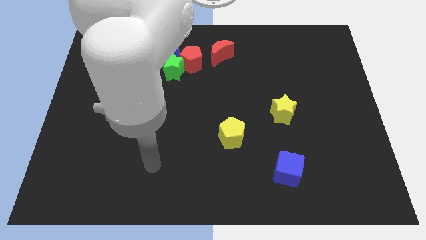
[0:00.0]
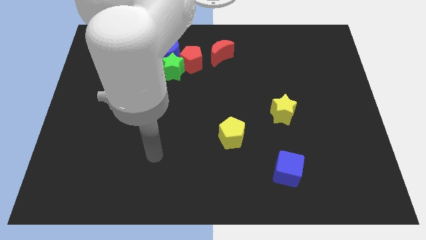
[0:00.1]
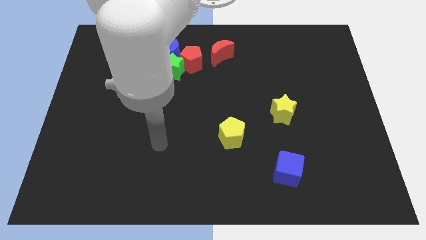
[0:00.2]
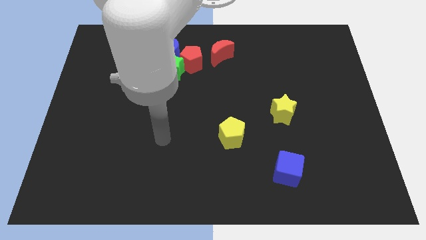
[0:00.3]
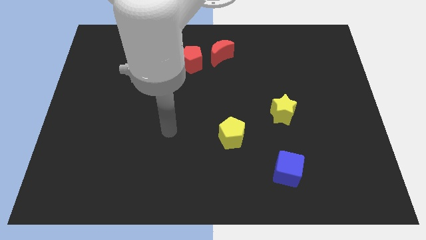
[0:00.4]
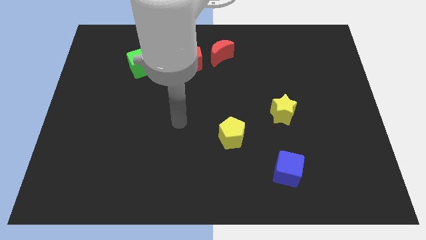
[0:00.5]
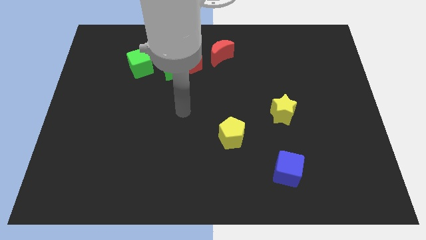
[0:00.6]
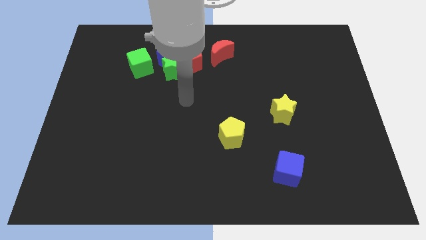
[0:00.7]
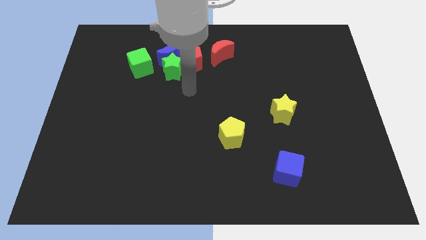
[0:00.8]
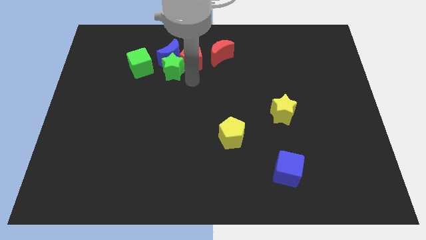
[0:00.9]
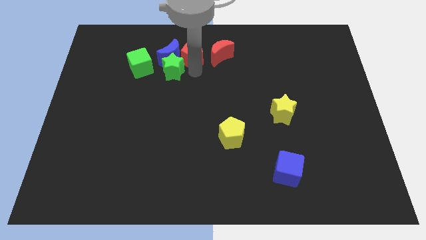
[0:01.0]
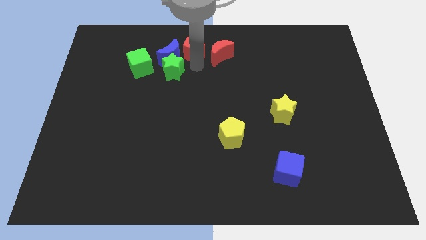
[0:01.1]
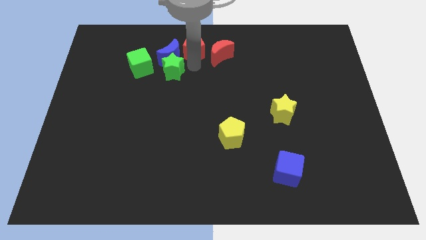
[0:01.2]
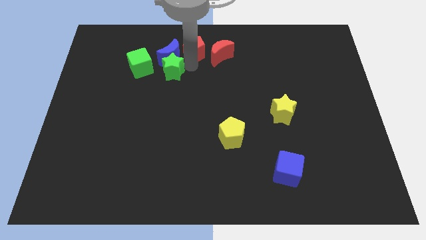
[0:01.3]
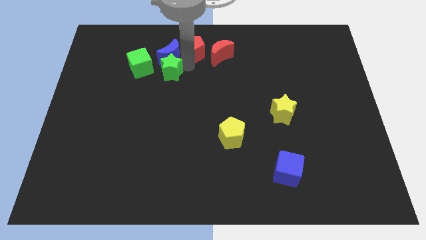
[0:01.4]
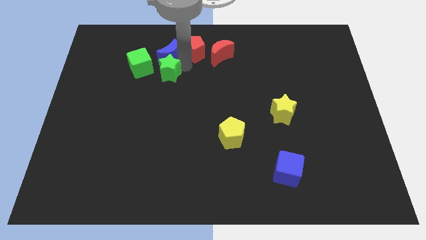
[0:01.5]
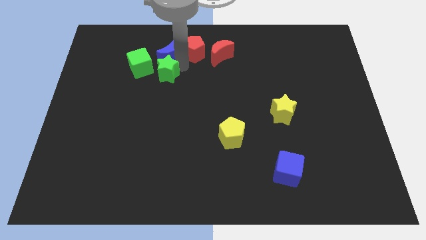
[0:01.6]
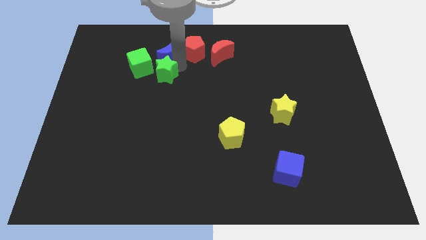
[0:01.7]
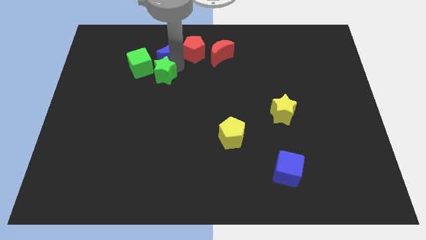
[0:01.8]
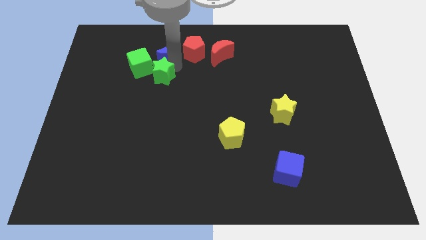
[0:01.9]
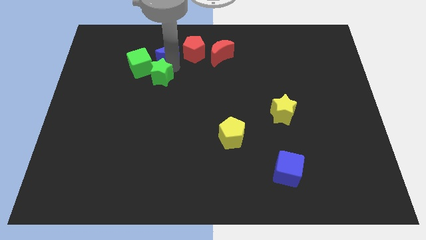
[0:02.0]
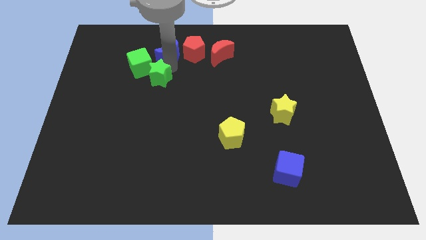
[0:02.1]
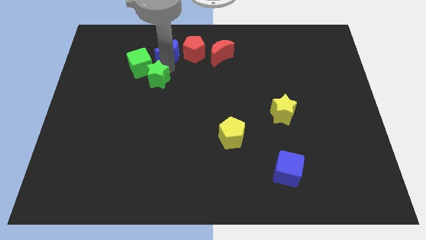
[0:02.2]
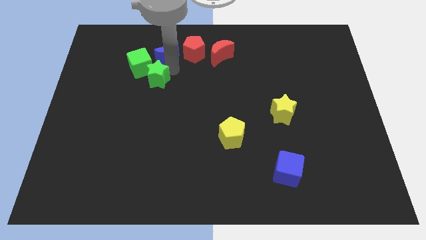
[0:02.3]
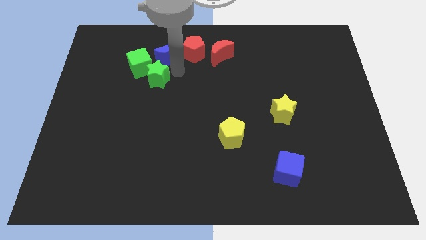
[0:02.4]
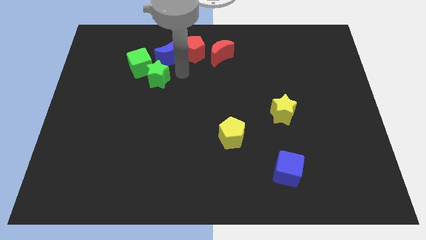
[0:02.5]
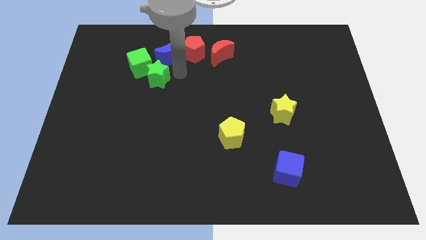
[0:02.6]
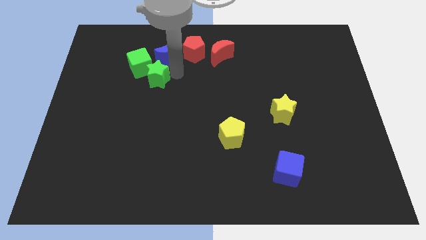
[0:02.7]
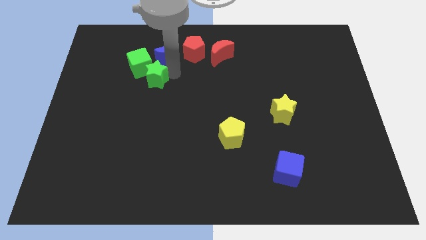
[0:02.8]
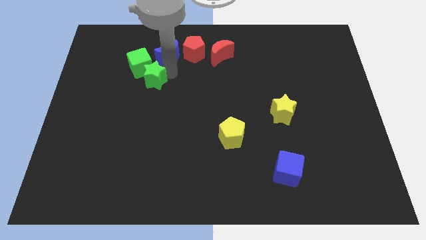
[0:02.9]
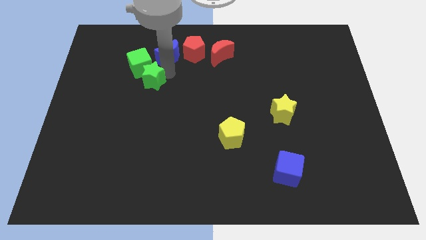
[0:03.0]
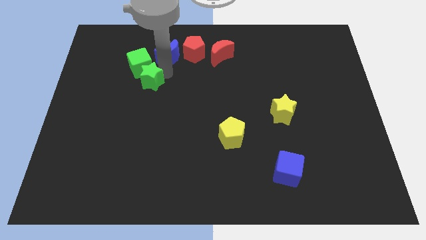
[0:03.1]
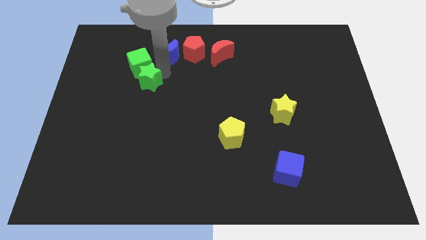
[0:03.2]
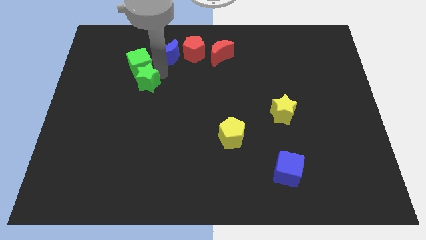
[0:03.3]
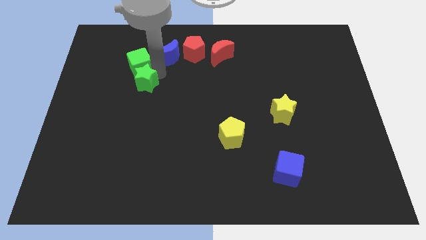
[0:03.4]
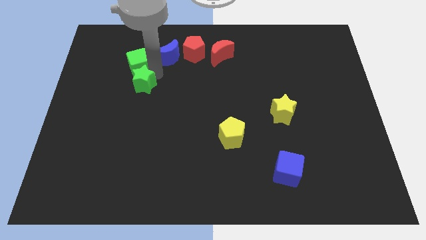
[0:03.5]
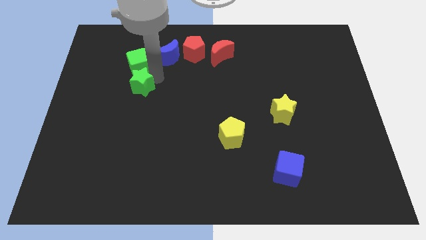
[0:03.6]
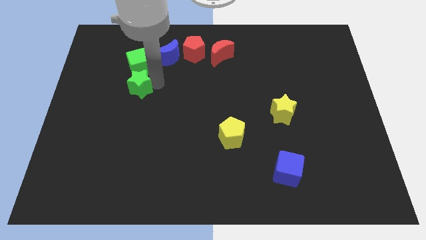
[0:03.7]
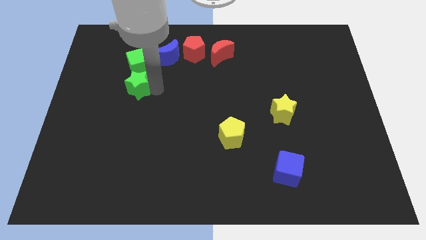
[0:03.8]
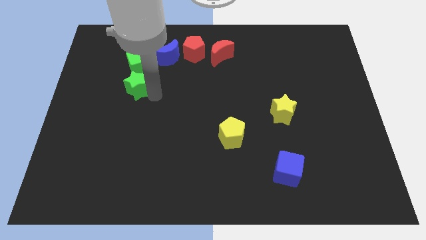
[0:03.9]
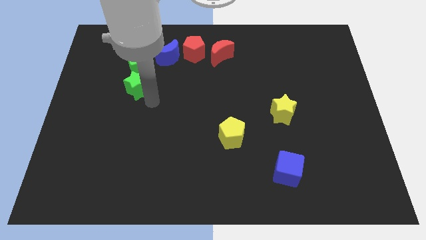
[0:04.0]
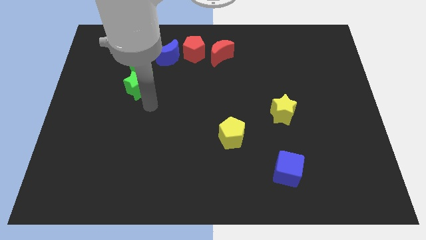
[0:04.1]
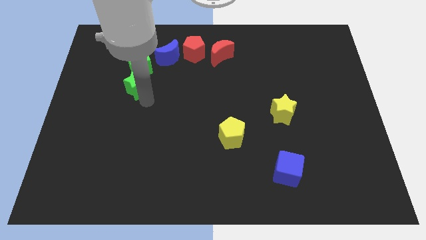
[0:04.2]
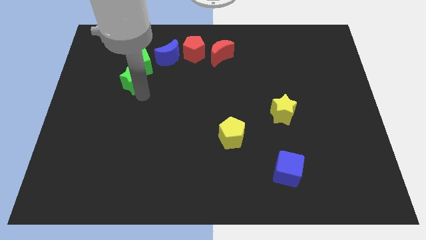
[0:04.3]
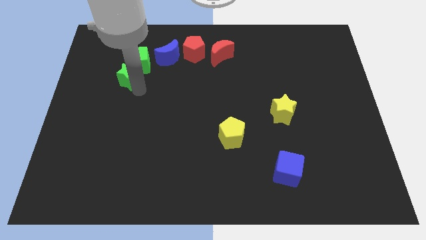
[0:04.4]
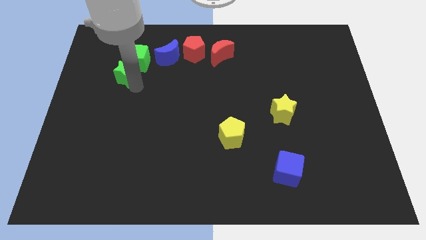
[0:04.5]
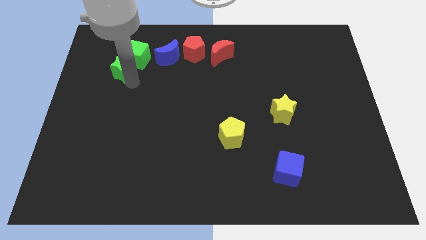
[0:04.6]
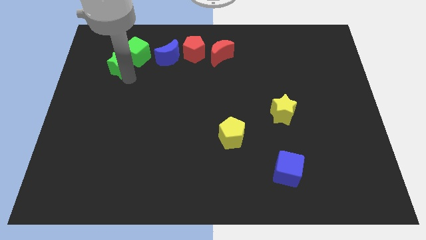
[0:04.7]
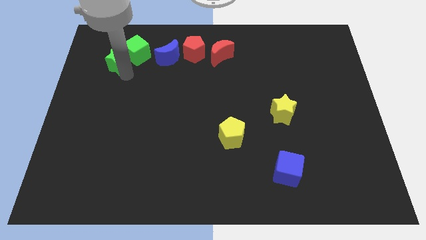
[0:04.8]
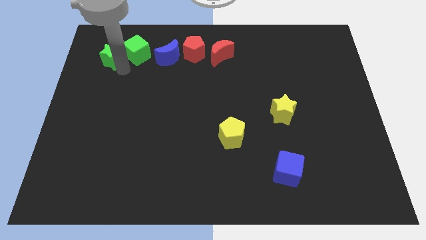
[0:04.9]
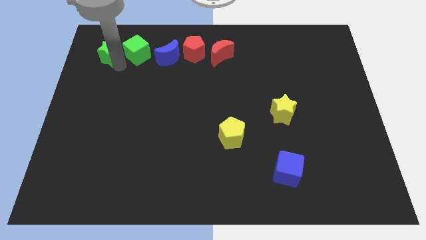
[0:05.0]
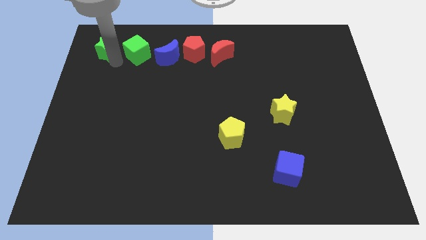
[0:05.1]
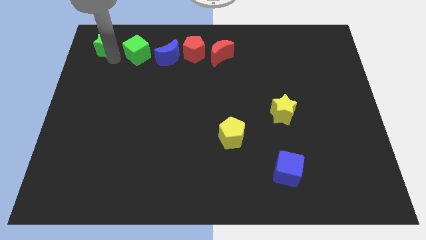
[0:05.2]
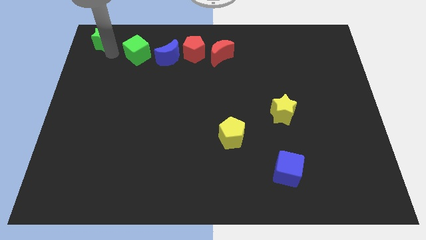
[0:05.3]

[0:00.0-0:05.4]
put the green star to the upper left corner

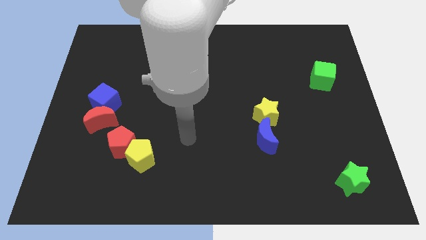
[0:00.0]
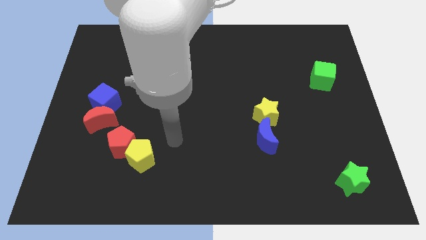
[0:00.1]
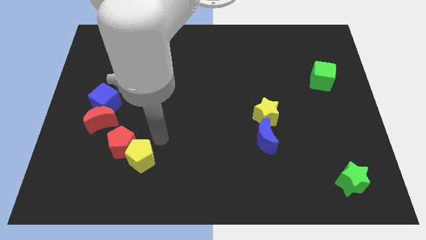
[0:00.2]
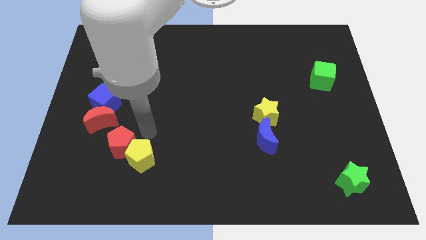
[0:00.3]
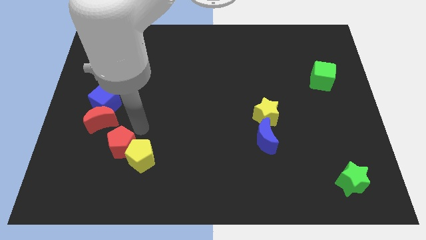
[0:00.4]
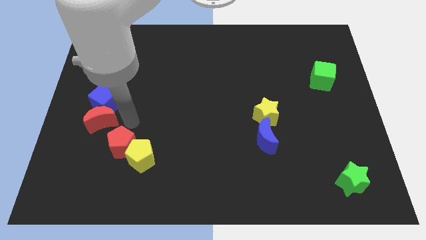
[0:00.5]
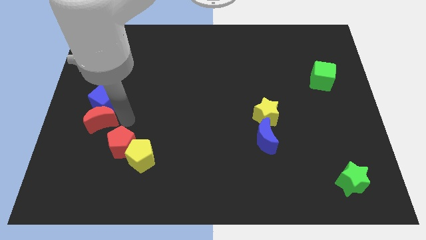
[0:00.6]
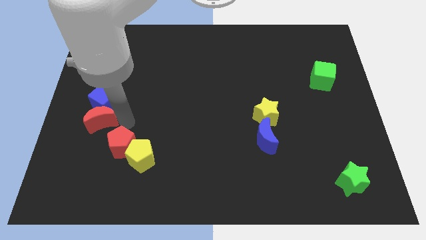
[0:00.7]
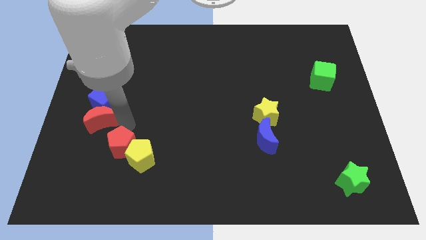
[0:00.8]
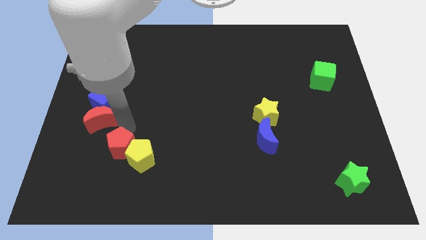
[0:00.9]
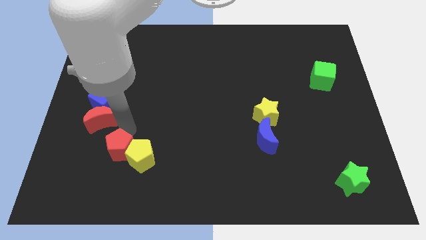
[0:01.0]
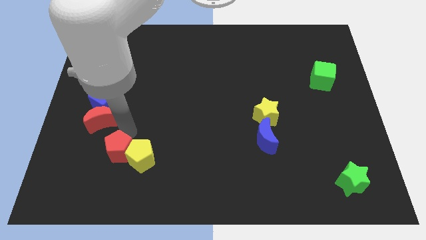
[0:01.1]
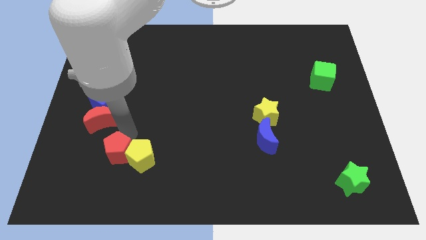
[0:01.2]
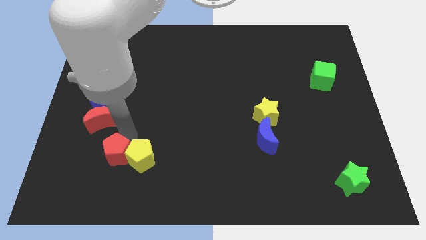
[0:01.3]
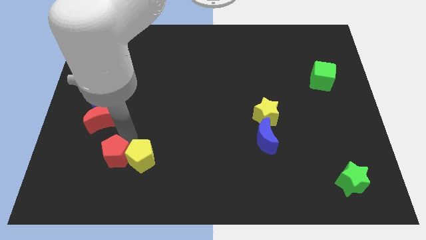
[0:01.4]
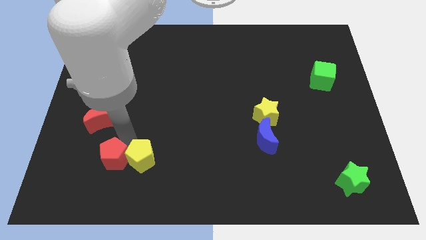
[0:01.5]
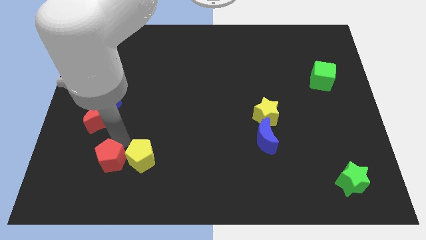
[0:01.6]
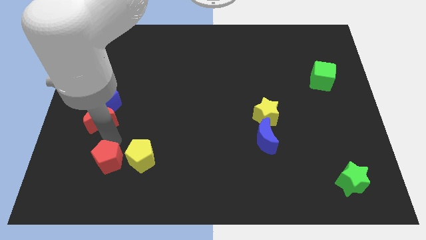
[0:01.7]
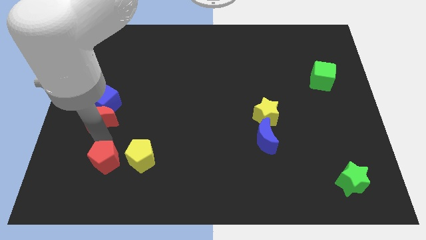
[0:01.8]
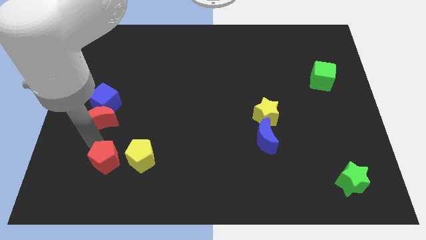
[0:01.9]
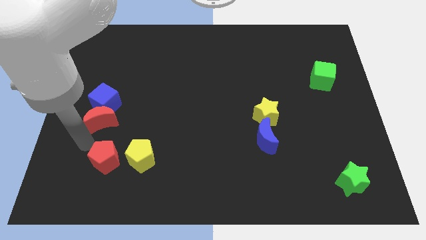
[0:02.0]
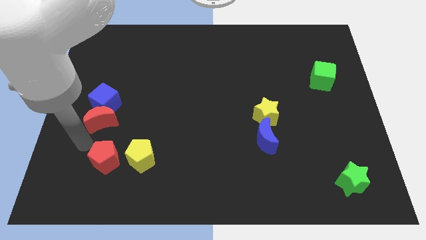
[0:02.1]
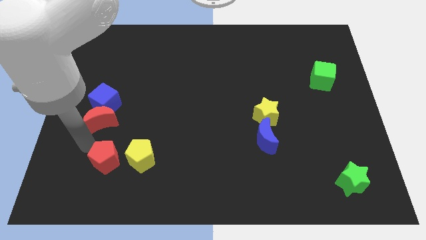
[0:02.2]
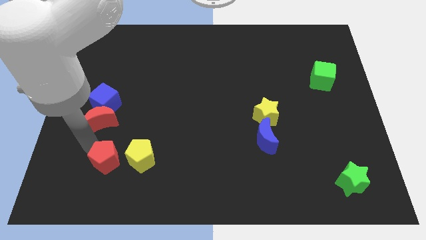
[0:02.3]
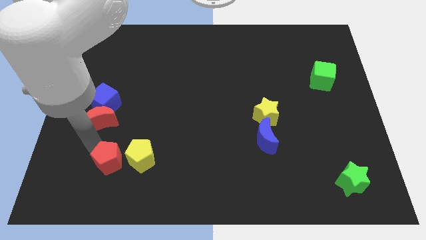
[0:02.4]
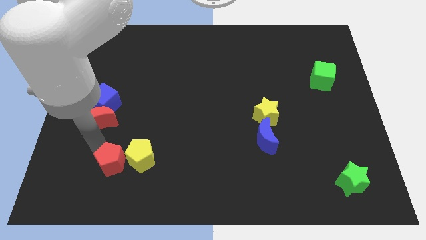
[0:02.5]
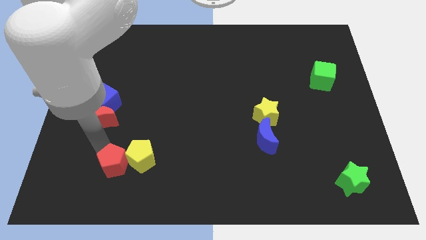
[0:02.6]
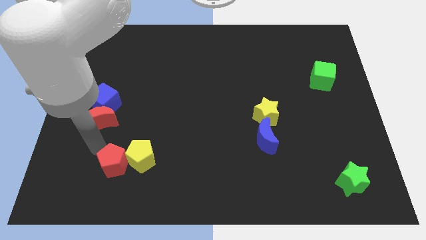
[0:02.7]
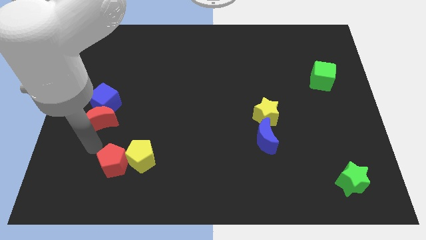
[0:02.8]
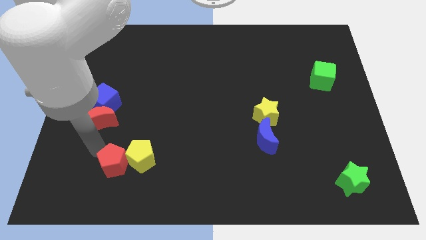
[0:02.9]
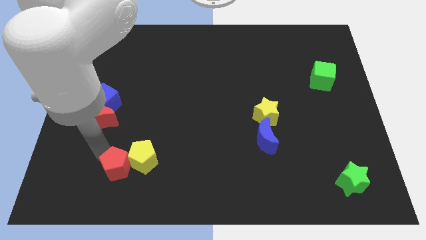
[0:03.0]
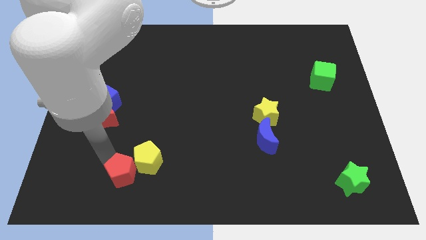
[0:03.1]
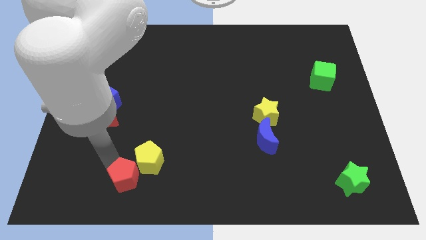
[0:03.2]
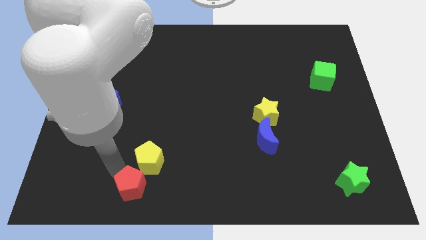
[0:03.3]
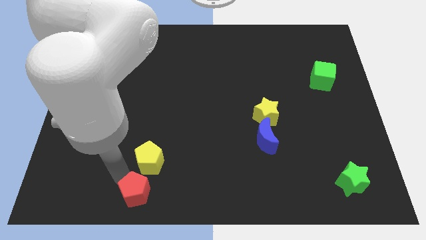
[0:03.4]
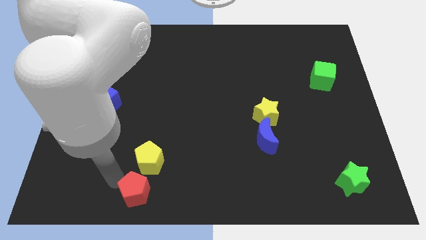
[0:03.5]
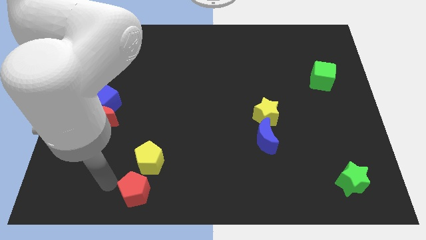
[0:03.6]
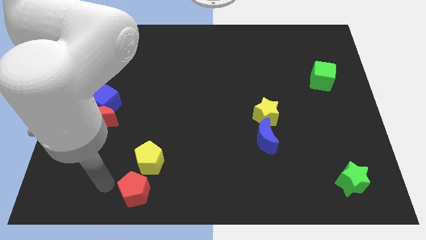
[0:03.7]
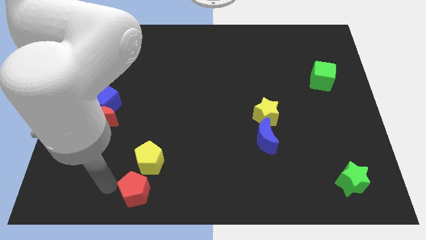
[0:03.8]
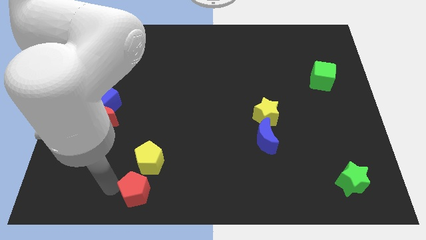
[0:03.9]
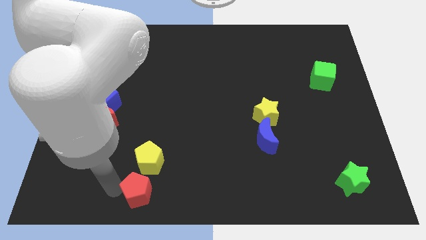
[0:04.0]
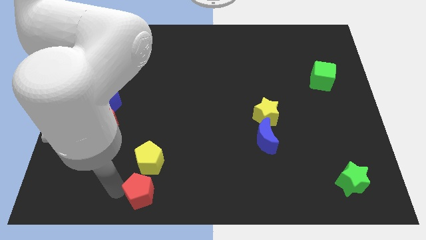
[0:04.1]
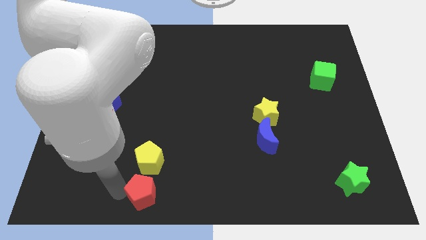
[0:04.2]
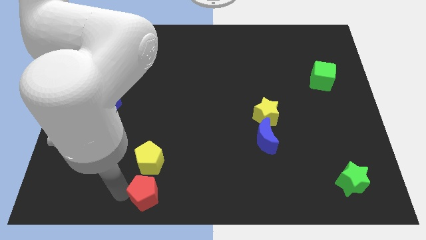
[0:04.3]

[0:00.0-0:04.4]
push the red pentagon to the bottom
